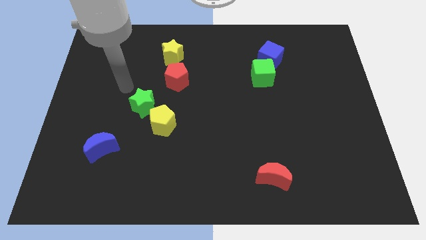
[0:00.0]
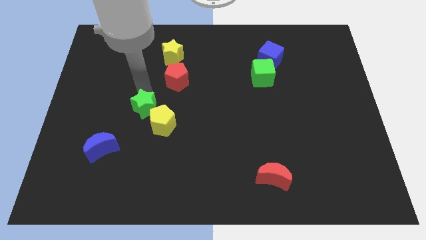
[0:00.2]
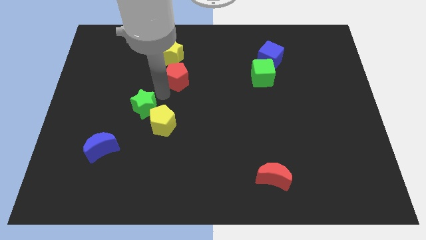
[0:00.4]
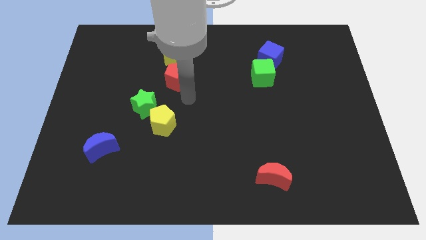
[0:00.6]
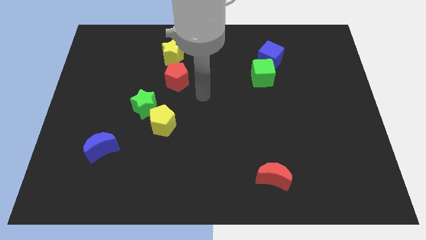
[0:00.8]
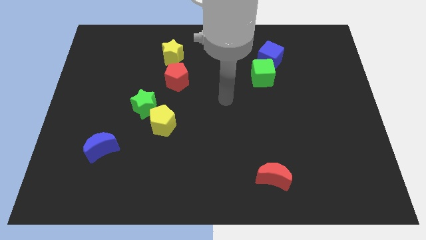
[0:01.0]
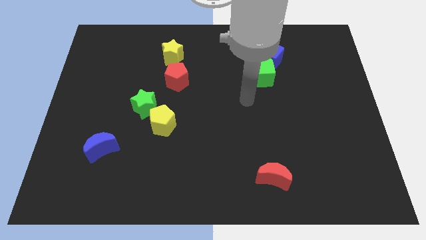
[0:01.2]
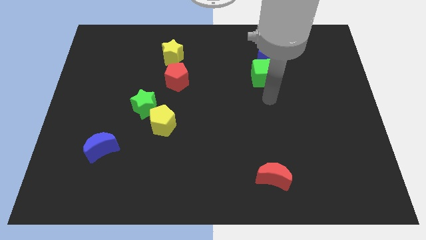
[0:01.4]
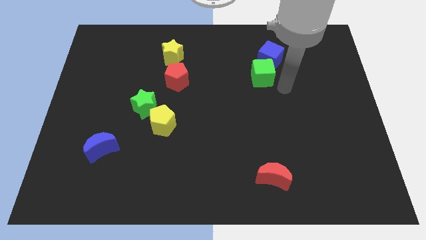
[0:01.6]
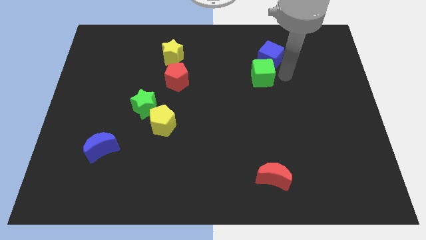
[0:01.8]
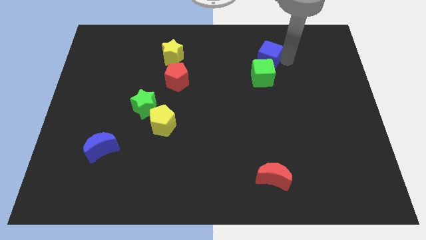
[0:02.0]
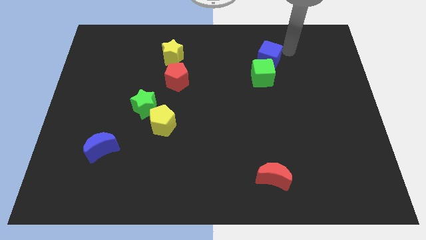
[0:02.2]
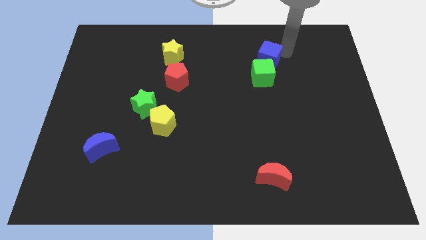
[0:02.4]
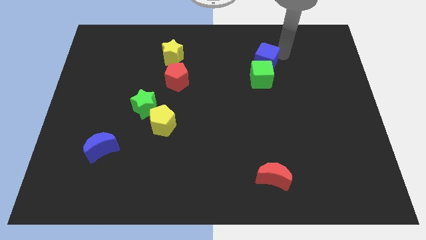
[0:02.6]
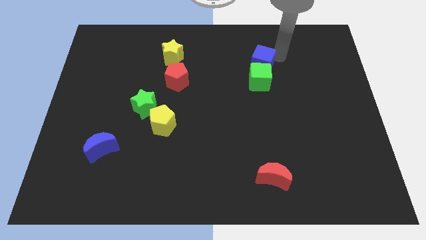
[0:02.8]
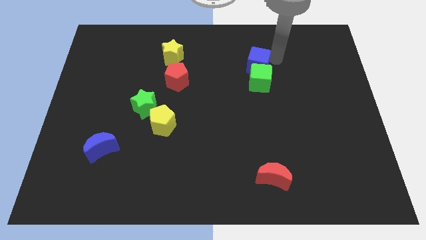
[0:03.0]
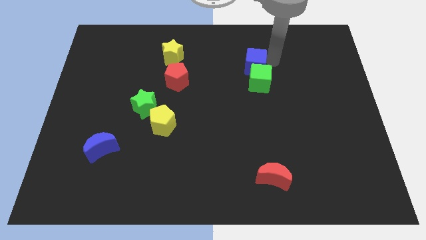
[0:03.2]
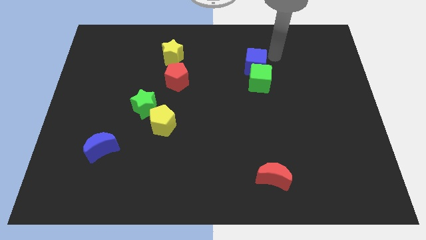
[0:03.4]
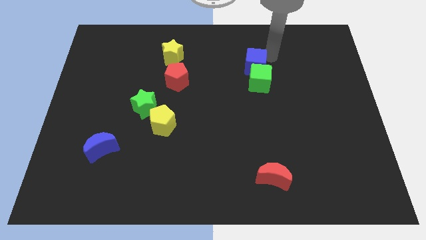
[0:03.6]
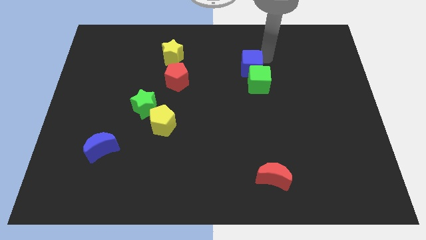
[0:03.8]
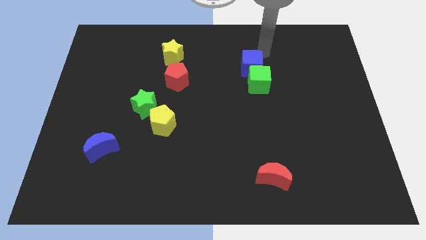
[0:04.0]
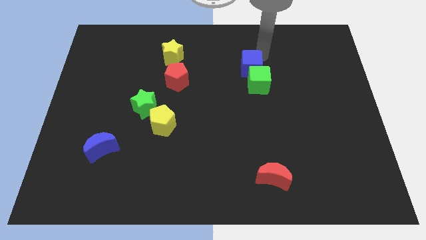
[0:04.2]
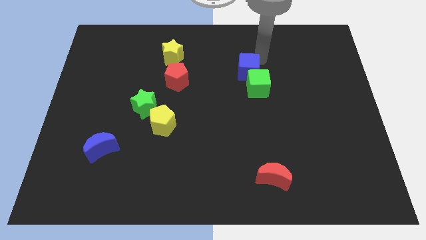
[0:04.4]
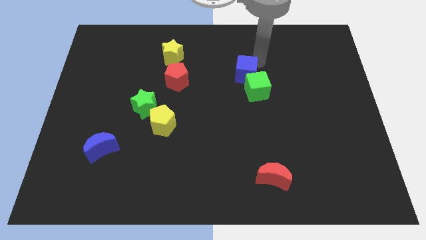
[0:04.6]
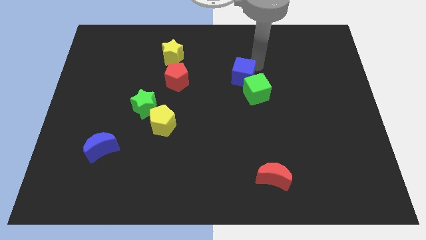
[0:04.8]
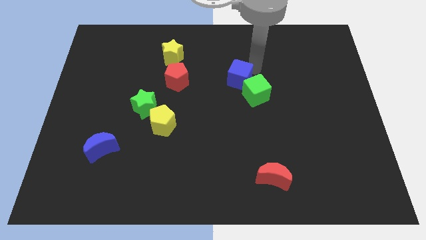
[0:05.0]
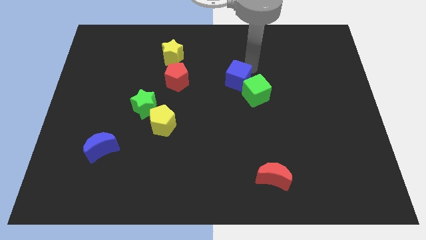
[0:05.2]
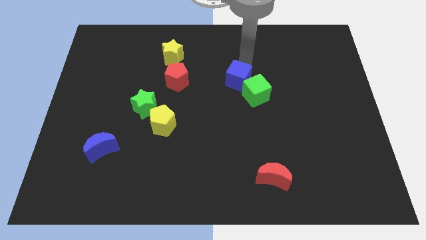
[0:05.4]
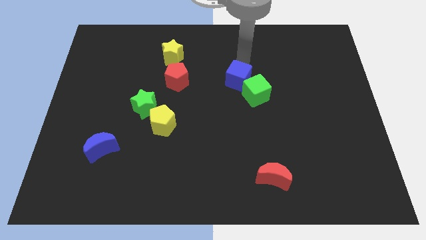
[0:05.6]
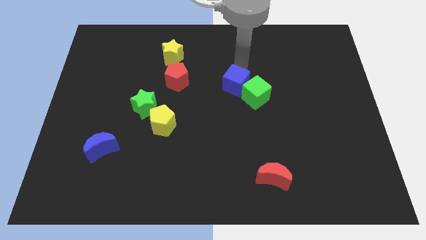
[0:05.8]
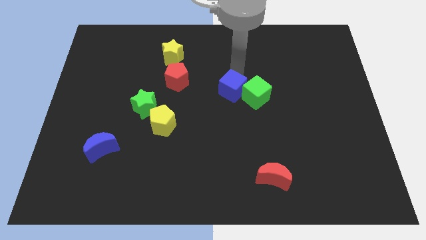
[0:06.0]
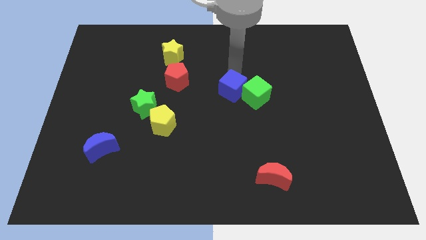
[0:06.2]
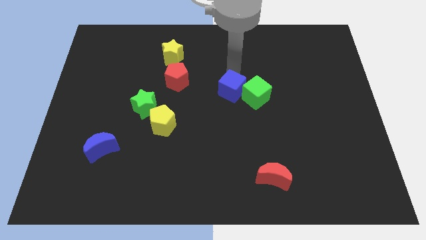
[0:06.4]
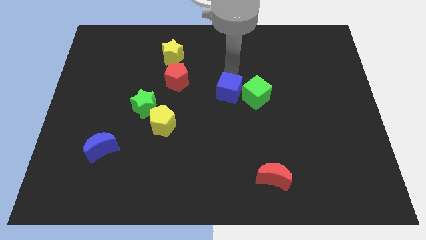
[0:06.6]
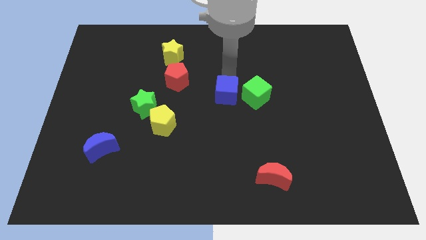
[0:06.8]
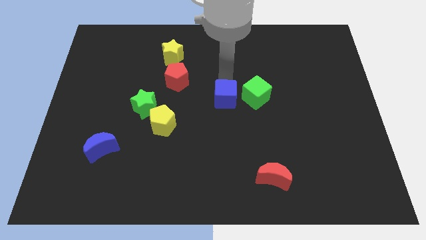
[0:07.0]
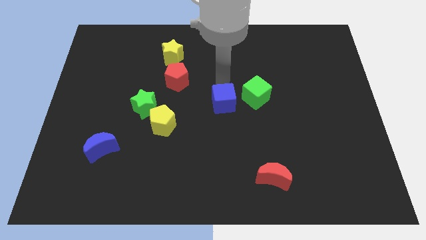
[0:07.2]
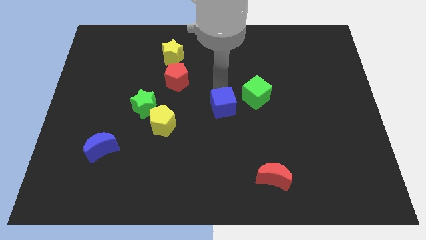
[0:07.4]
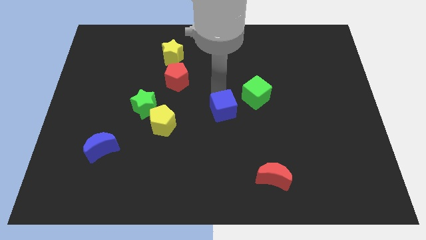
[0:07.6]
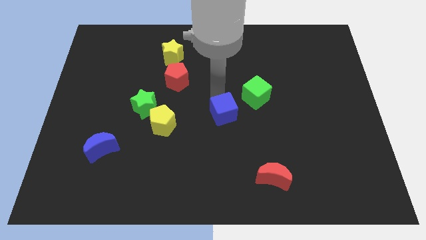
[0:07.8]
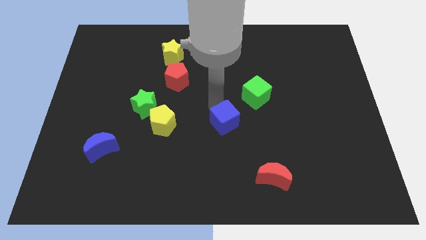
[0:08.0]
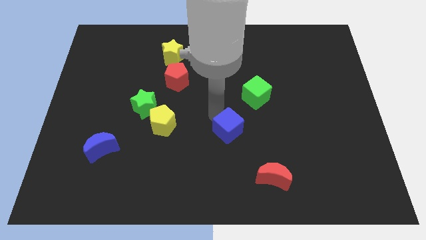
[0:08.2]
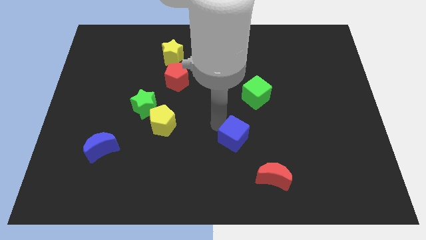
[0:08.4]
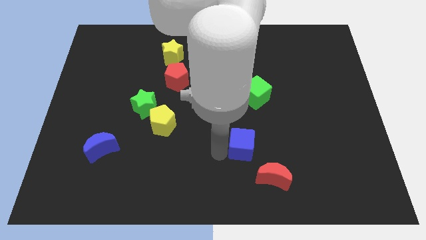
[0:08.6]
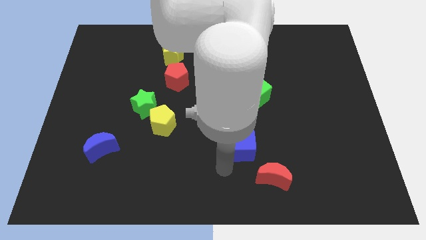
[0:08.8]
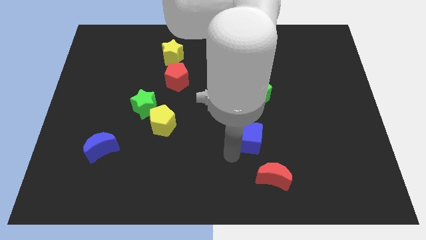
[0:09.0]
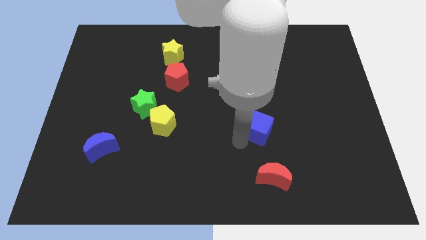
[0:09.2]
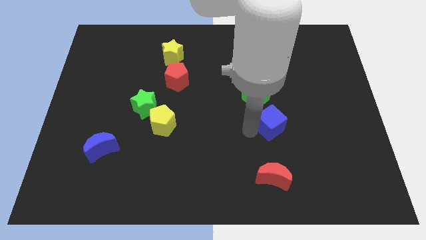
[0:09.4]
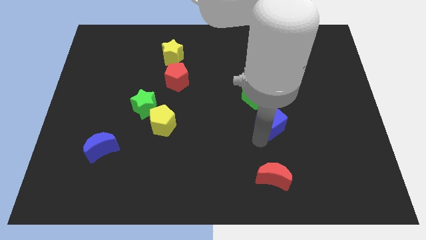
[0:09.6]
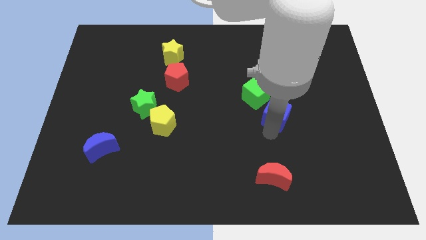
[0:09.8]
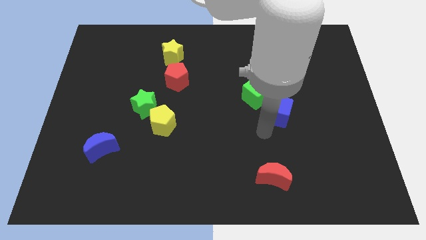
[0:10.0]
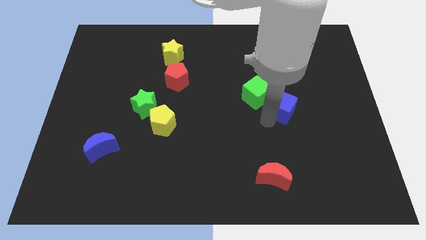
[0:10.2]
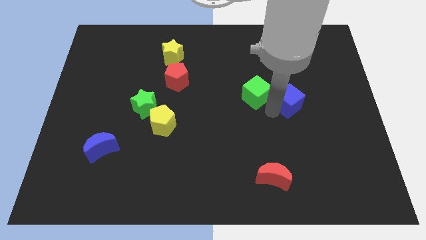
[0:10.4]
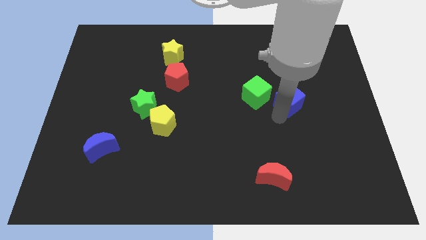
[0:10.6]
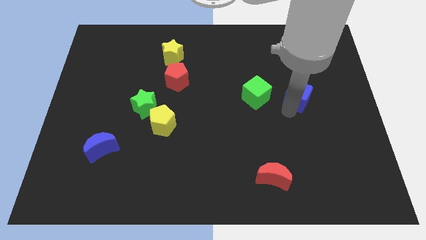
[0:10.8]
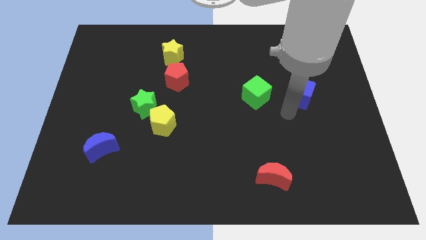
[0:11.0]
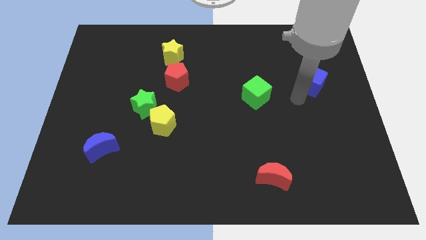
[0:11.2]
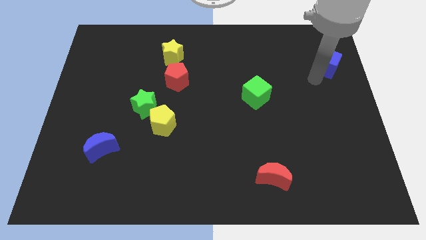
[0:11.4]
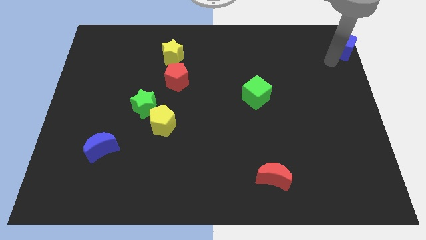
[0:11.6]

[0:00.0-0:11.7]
push the blue cube to the top right
